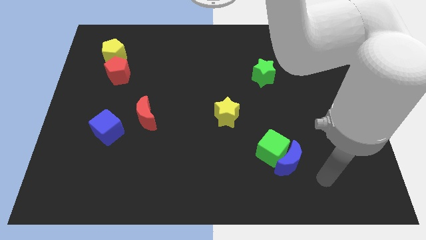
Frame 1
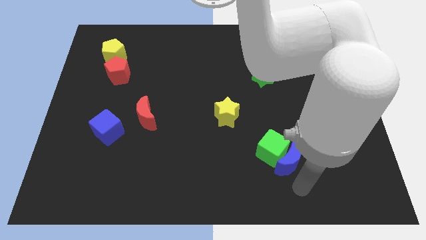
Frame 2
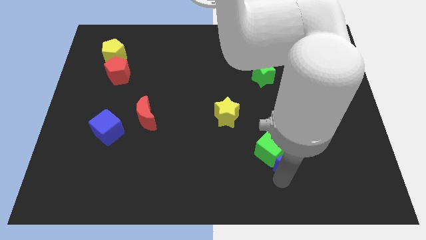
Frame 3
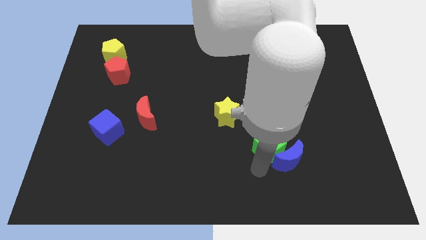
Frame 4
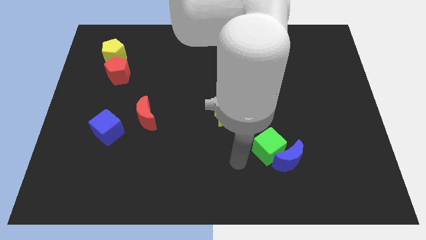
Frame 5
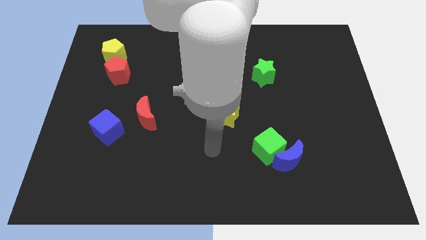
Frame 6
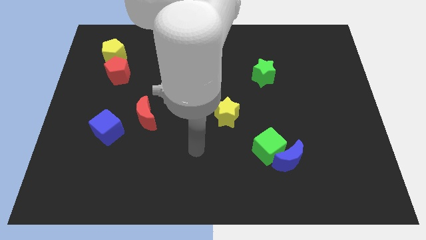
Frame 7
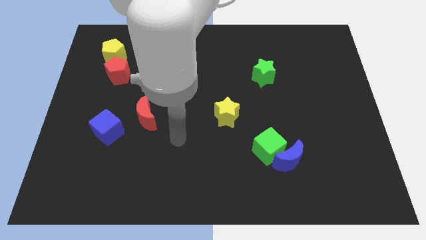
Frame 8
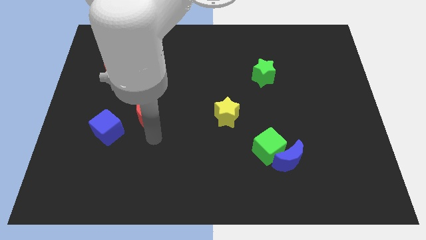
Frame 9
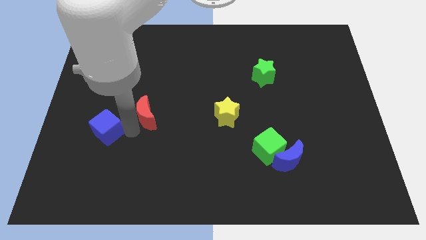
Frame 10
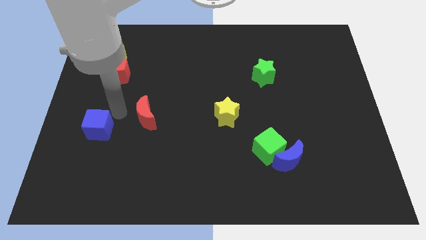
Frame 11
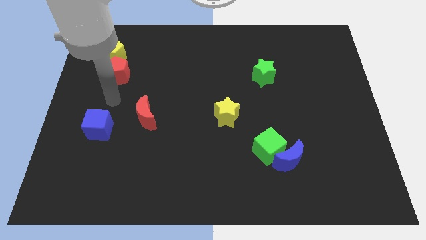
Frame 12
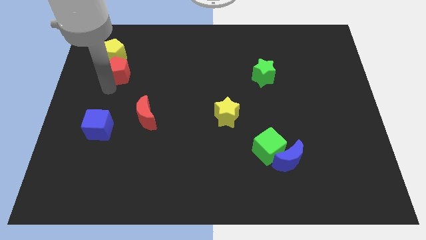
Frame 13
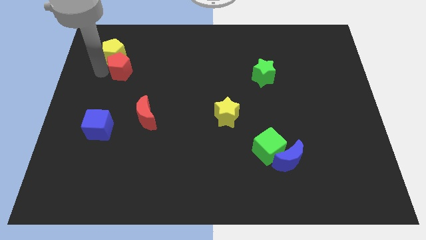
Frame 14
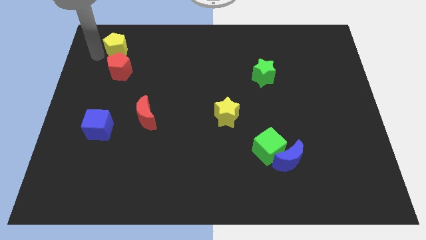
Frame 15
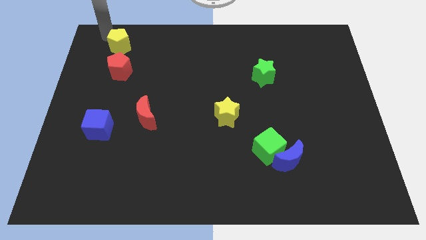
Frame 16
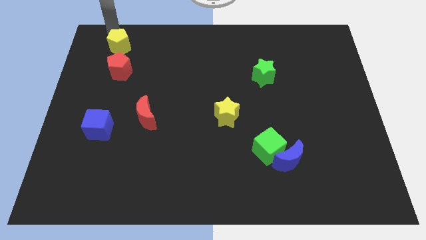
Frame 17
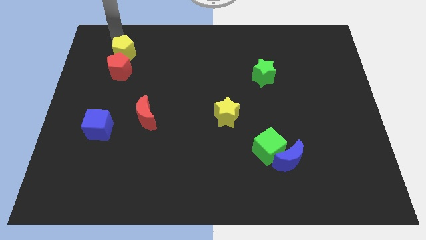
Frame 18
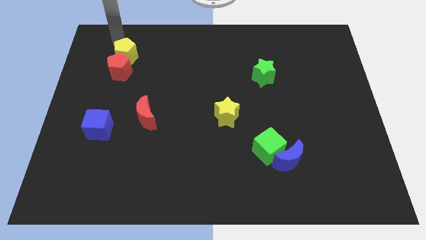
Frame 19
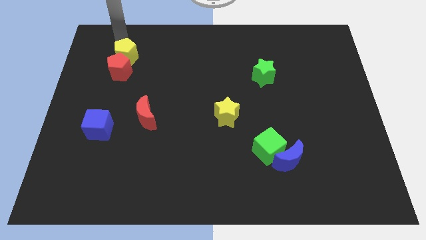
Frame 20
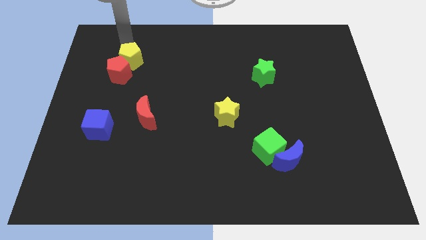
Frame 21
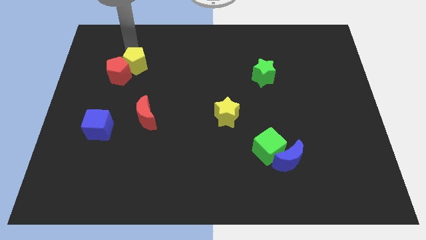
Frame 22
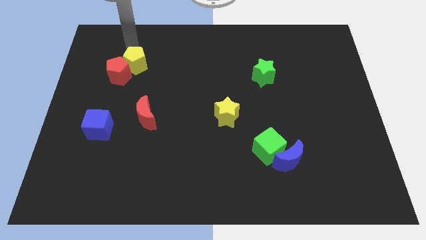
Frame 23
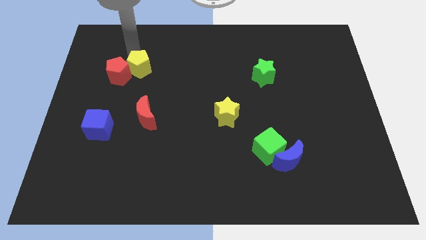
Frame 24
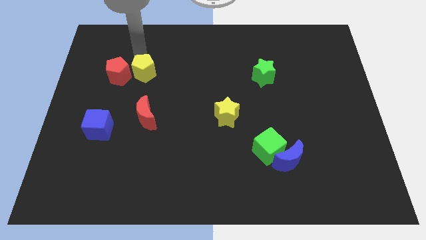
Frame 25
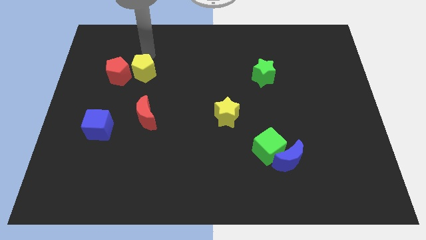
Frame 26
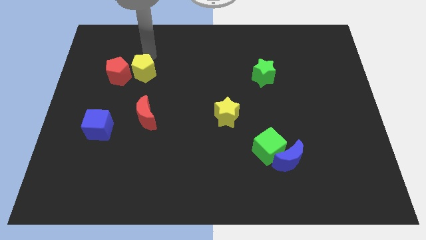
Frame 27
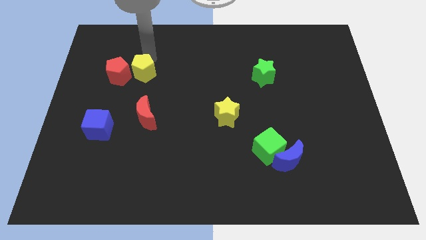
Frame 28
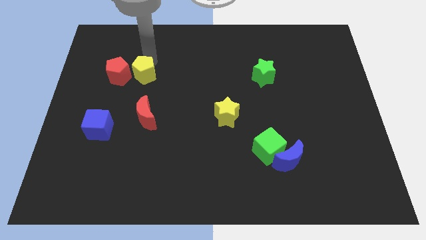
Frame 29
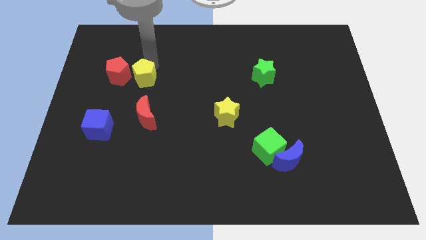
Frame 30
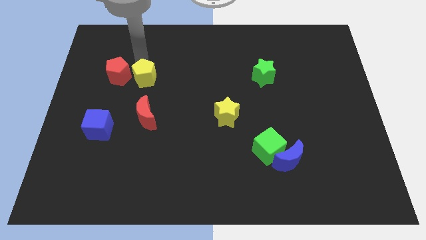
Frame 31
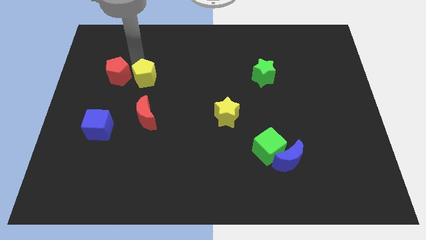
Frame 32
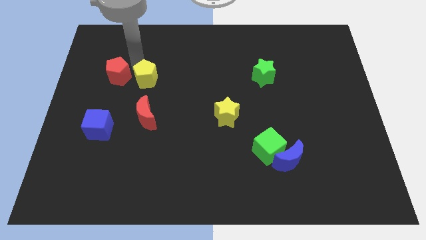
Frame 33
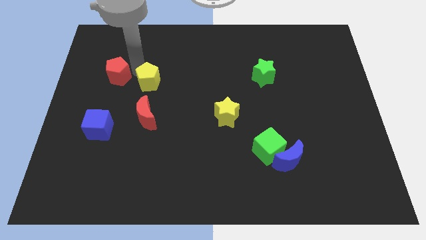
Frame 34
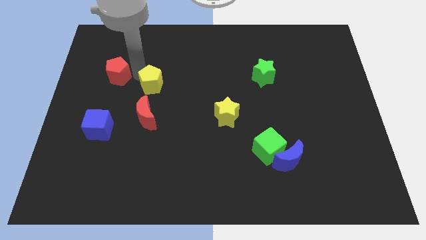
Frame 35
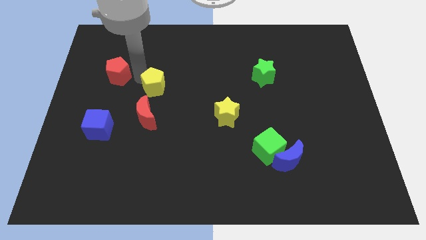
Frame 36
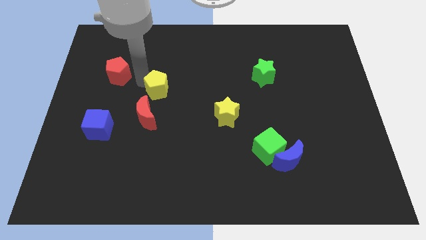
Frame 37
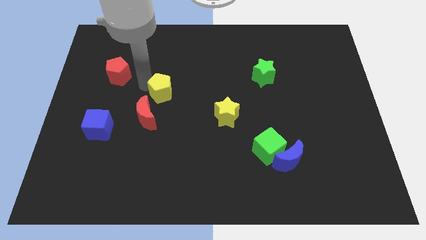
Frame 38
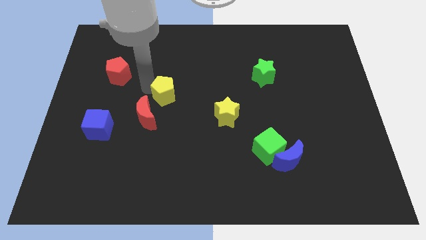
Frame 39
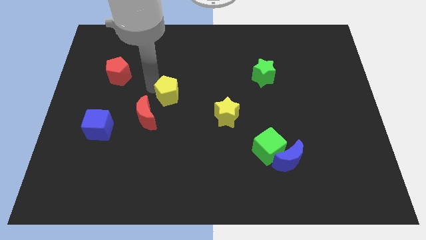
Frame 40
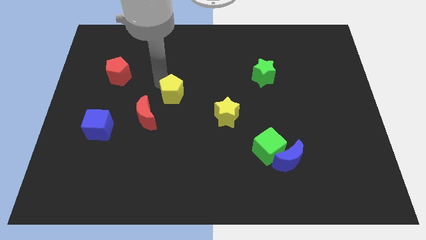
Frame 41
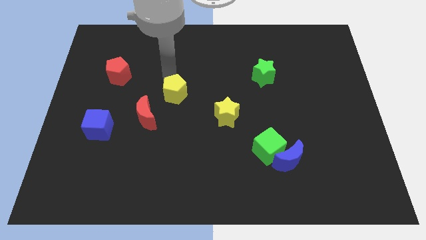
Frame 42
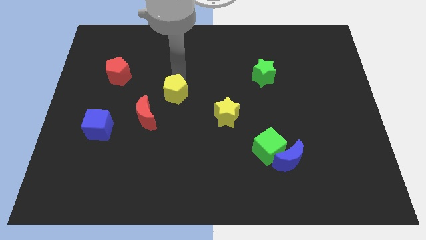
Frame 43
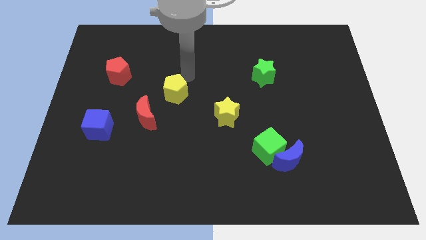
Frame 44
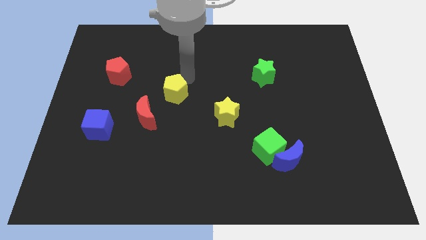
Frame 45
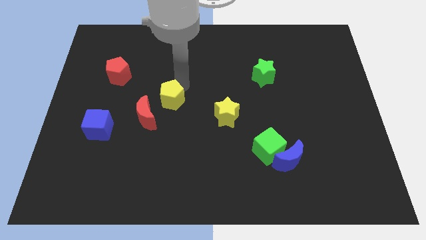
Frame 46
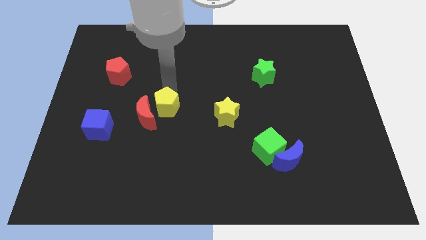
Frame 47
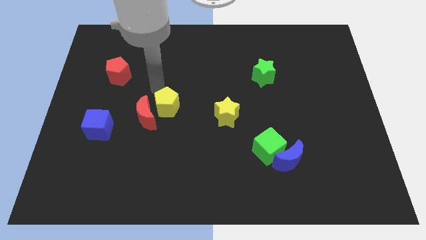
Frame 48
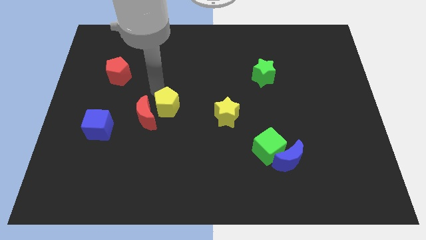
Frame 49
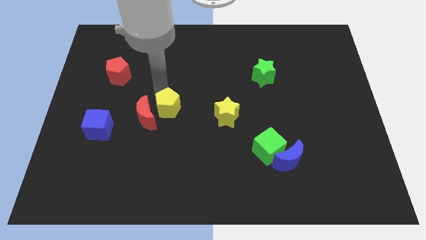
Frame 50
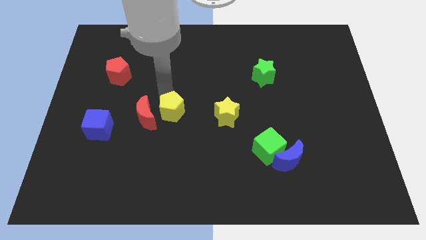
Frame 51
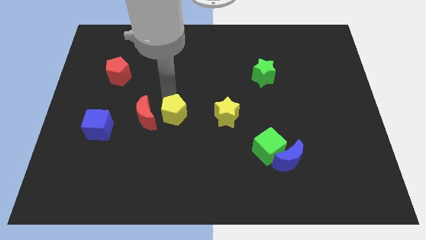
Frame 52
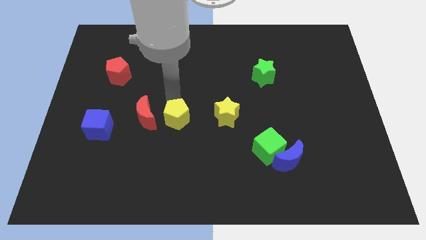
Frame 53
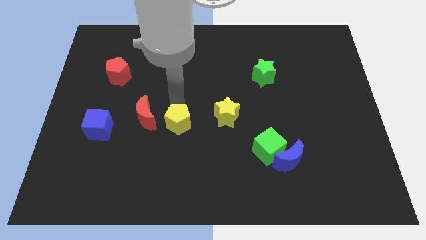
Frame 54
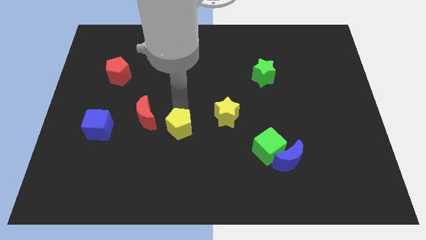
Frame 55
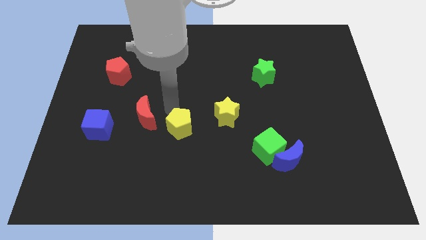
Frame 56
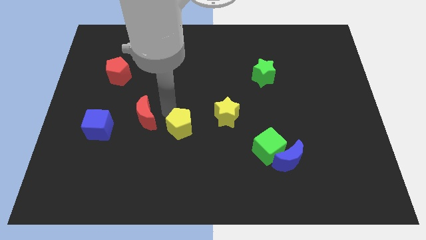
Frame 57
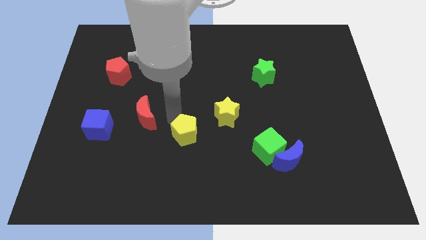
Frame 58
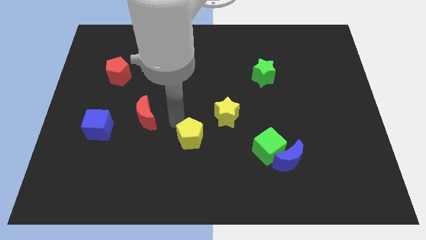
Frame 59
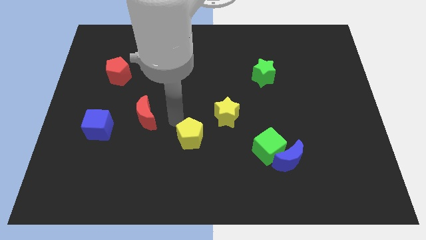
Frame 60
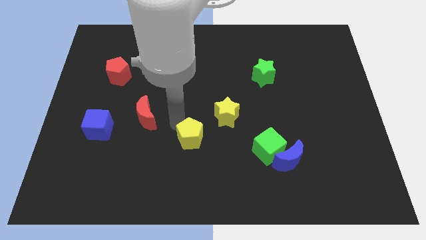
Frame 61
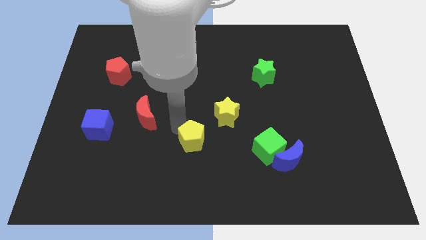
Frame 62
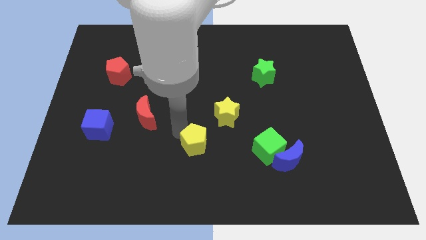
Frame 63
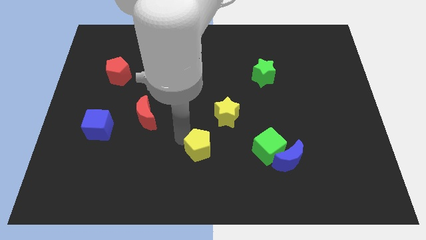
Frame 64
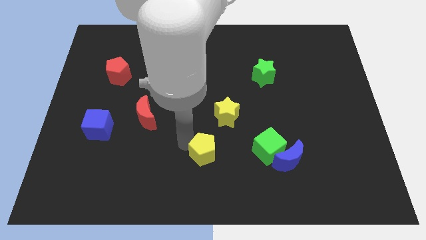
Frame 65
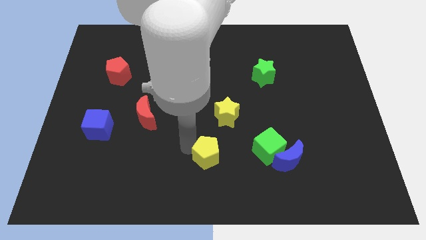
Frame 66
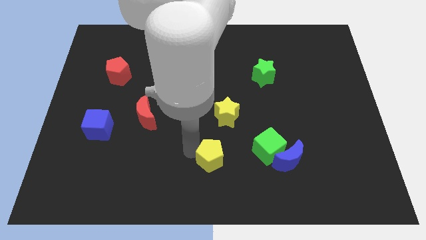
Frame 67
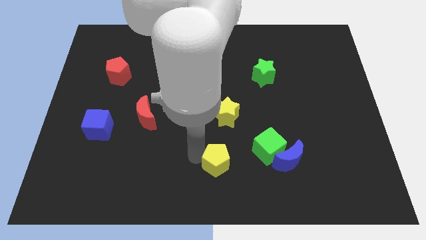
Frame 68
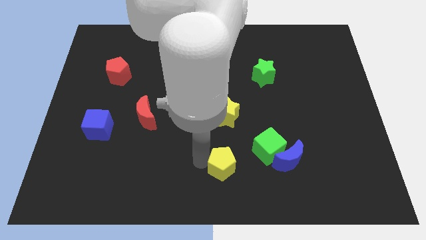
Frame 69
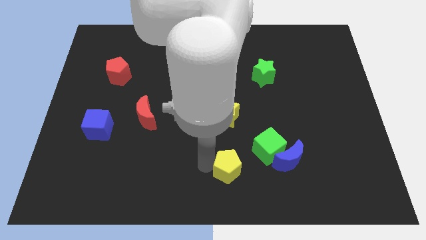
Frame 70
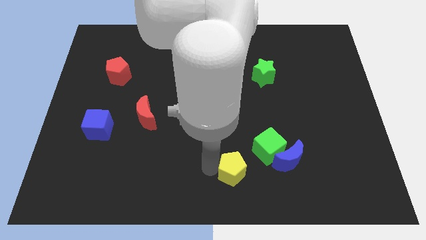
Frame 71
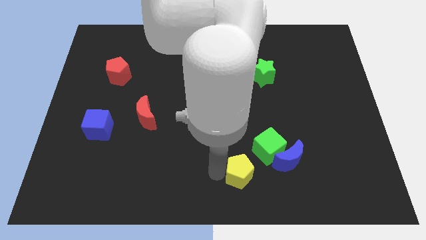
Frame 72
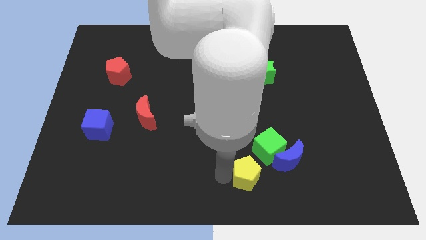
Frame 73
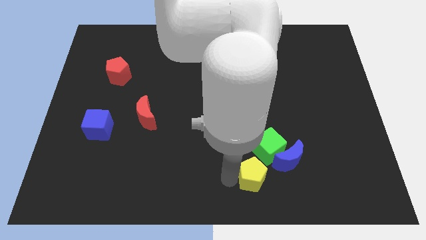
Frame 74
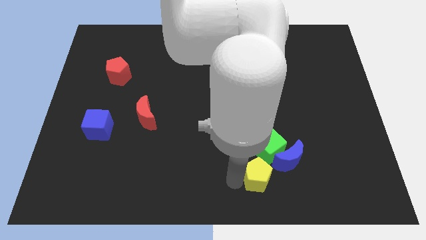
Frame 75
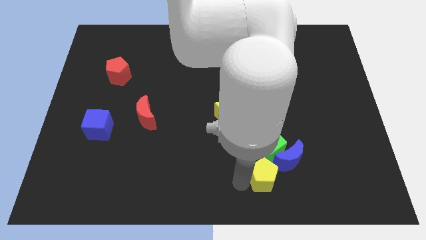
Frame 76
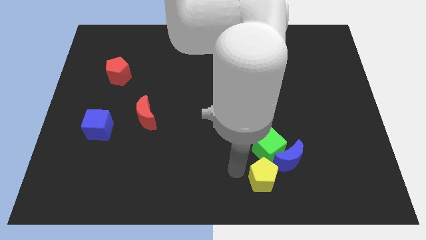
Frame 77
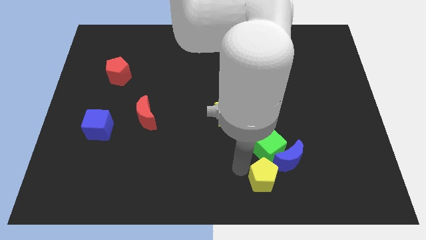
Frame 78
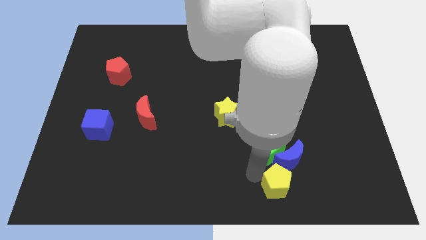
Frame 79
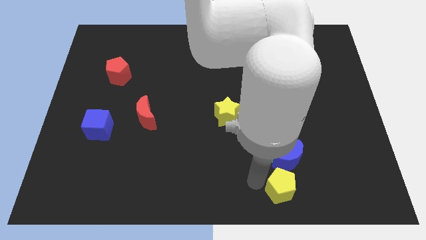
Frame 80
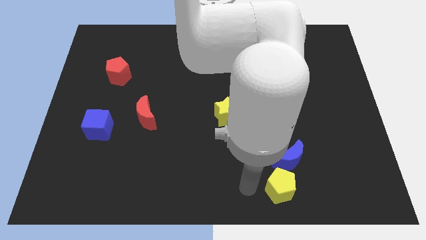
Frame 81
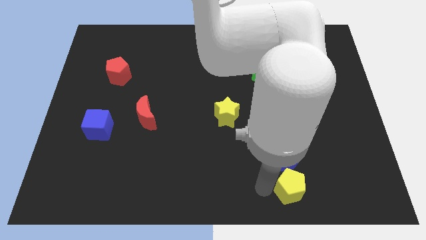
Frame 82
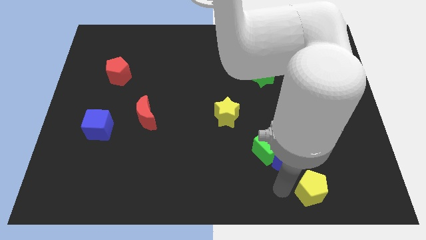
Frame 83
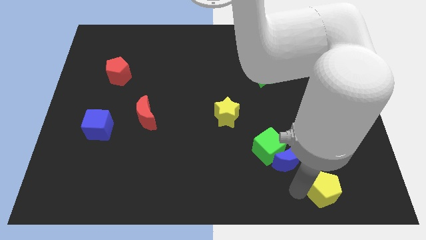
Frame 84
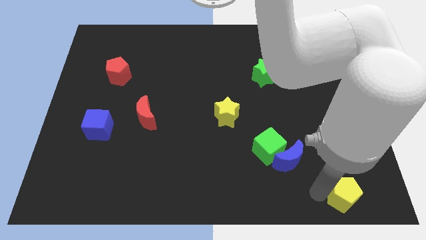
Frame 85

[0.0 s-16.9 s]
push the yellow pentagon to the bottom right of the board
